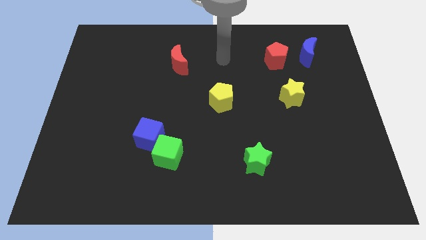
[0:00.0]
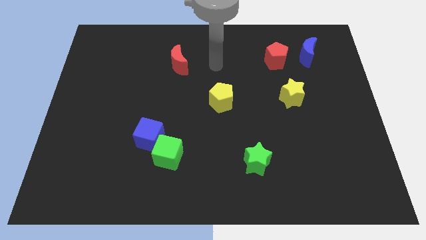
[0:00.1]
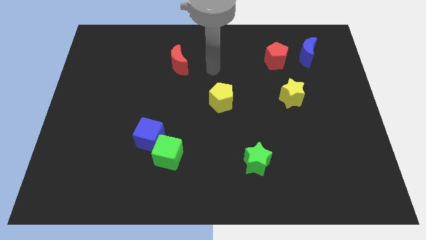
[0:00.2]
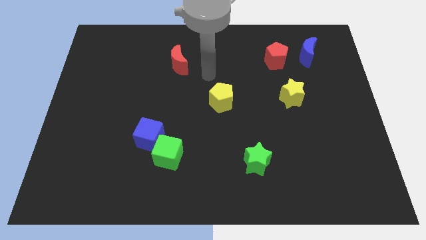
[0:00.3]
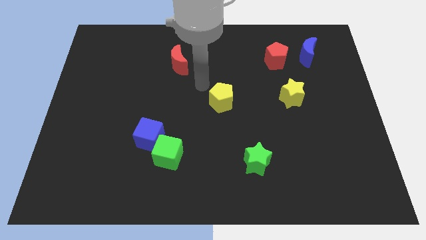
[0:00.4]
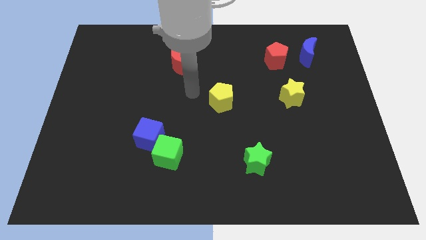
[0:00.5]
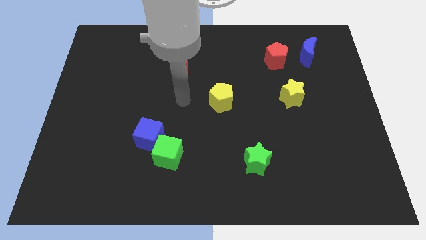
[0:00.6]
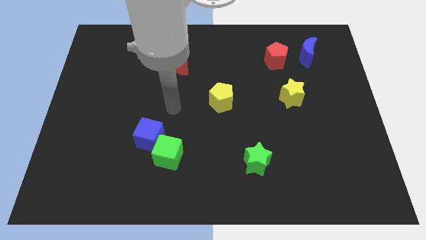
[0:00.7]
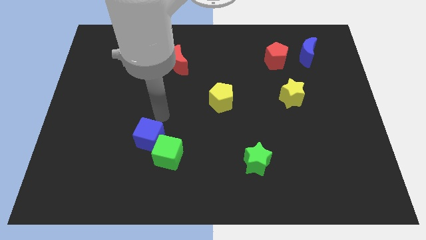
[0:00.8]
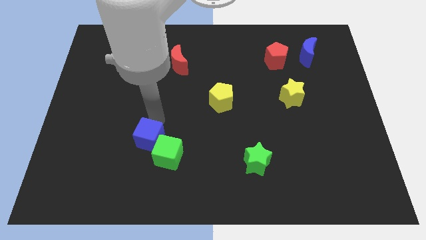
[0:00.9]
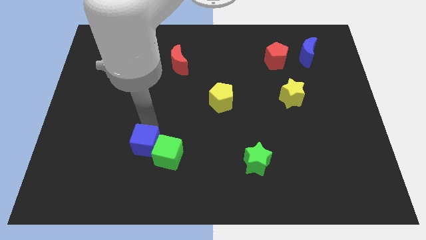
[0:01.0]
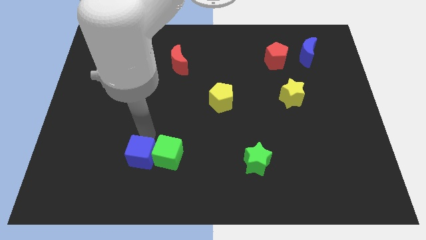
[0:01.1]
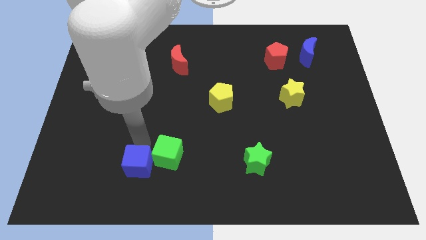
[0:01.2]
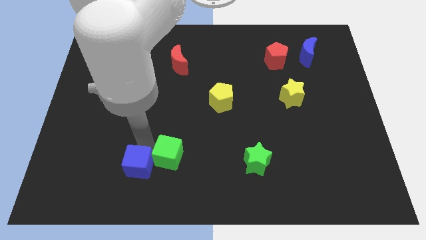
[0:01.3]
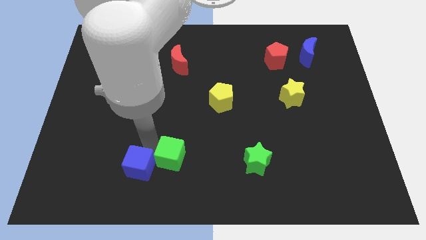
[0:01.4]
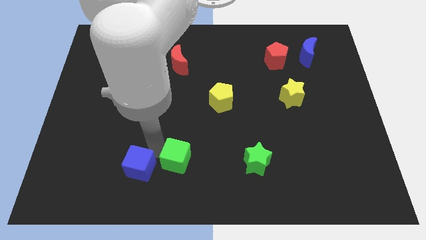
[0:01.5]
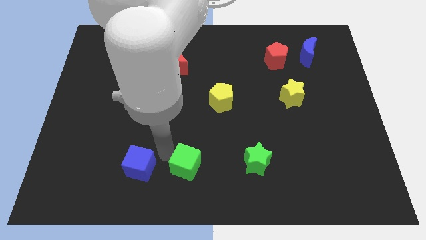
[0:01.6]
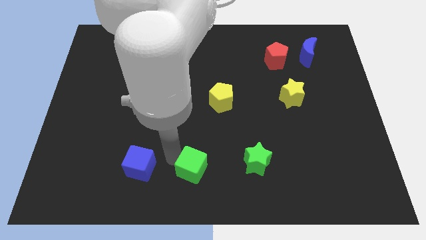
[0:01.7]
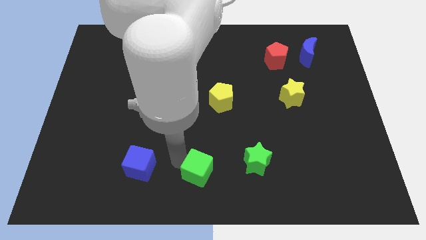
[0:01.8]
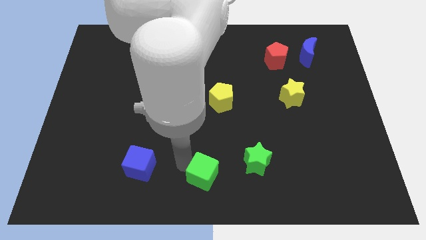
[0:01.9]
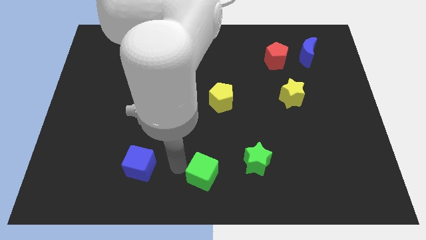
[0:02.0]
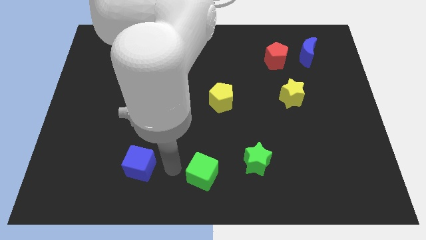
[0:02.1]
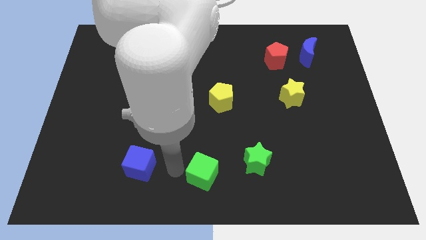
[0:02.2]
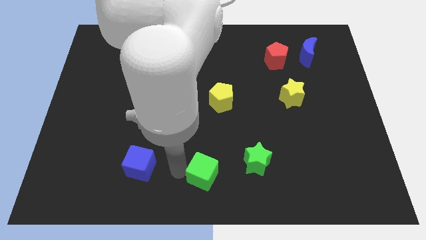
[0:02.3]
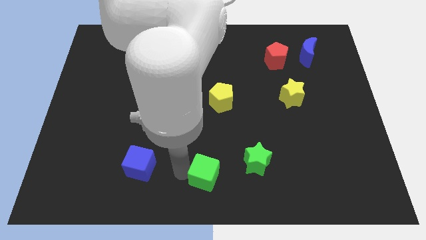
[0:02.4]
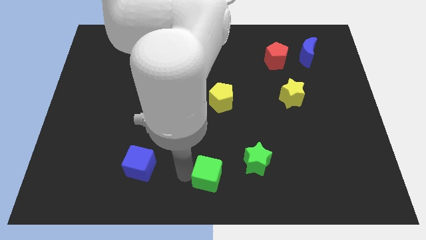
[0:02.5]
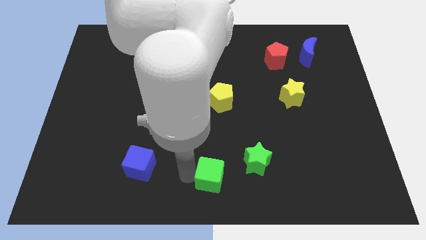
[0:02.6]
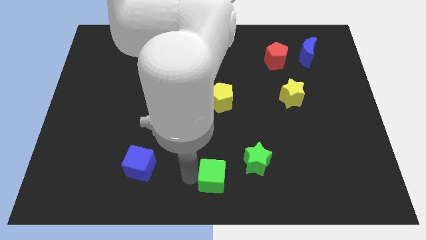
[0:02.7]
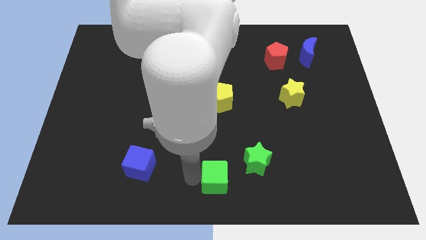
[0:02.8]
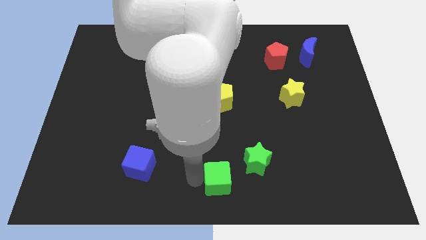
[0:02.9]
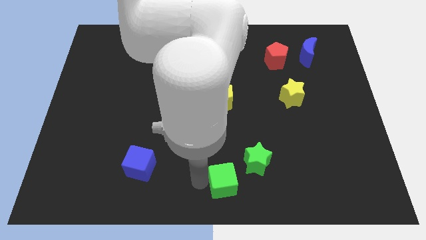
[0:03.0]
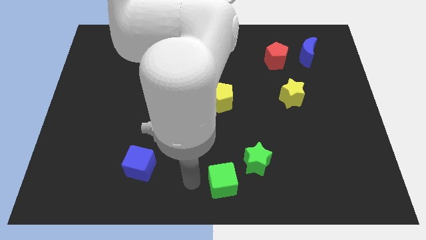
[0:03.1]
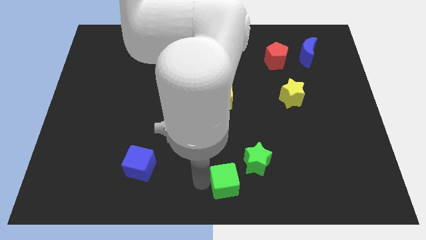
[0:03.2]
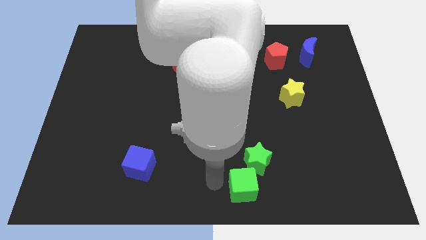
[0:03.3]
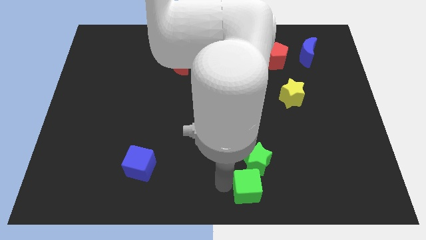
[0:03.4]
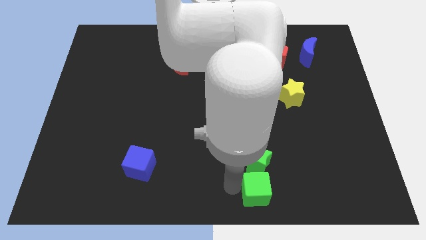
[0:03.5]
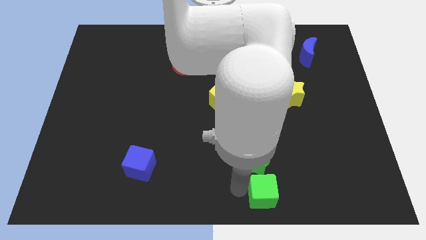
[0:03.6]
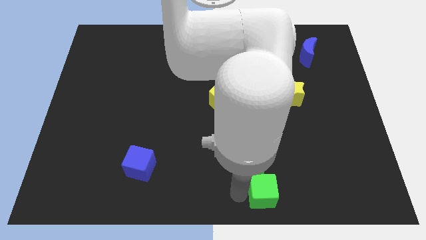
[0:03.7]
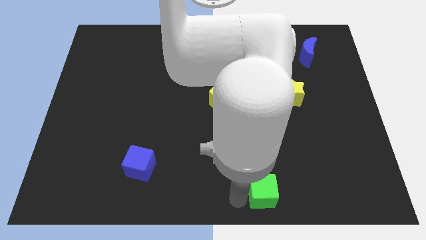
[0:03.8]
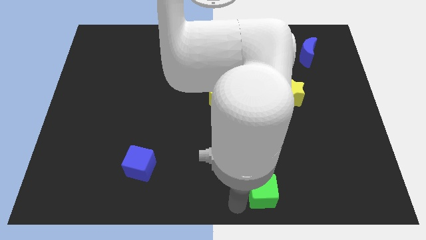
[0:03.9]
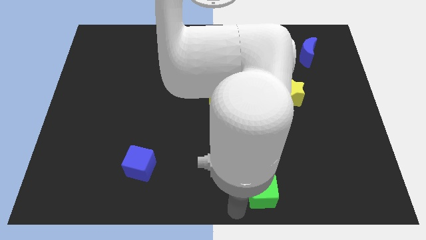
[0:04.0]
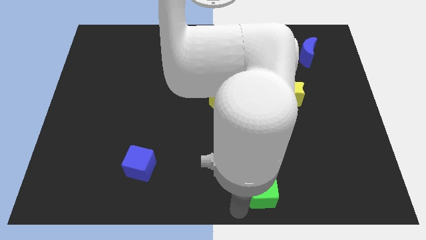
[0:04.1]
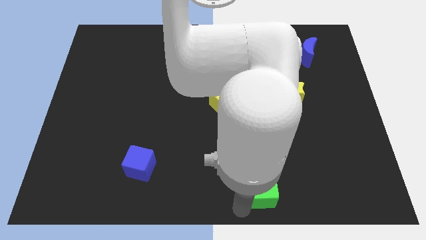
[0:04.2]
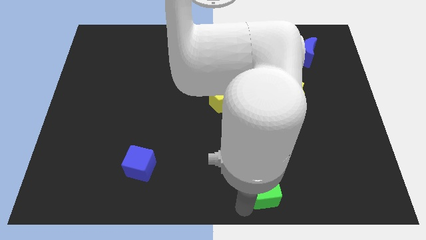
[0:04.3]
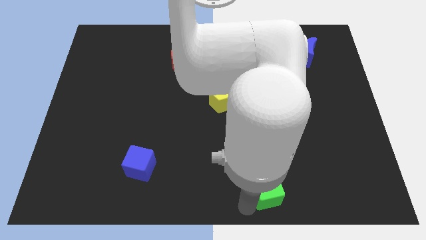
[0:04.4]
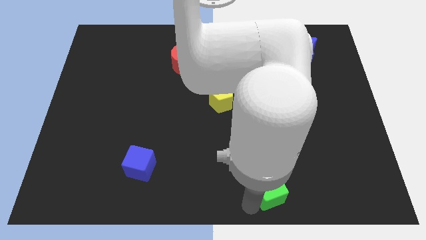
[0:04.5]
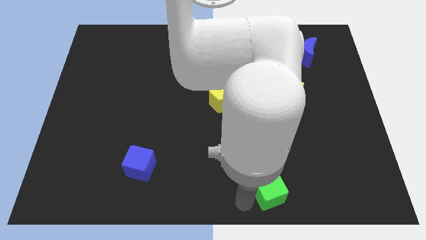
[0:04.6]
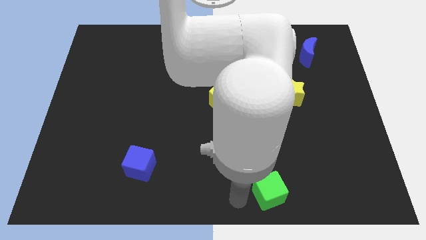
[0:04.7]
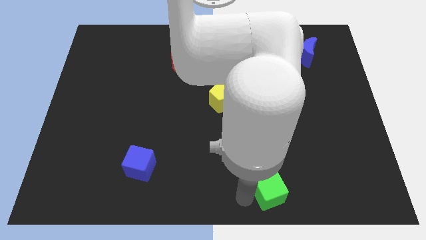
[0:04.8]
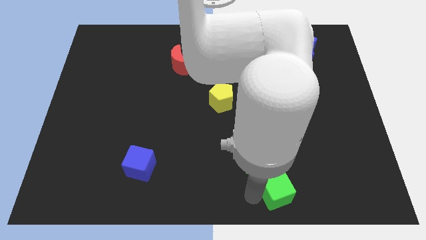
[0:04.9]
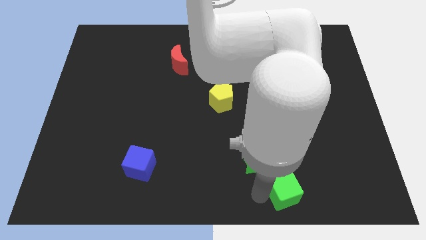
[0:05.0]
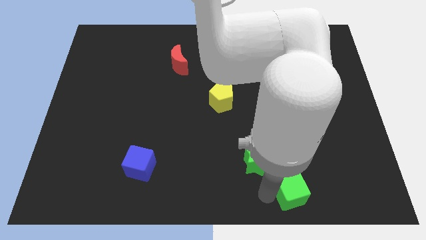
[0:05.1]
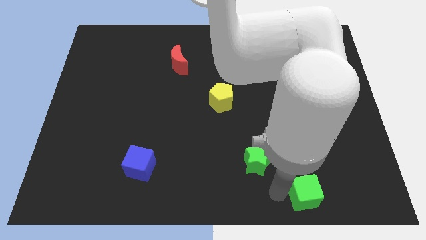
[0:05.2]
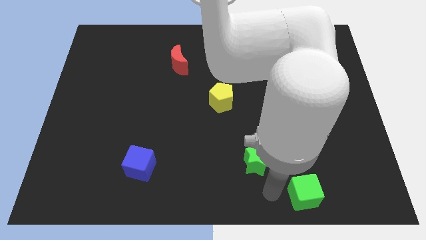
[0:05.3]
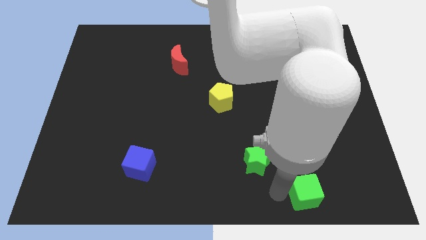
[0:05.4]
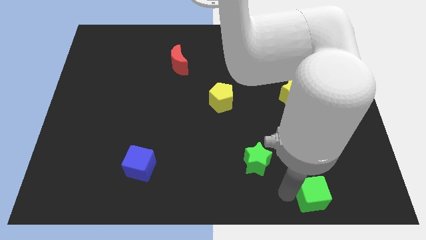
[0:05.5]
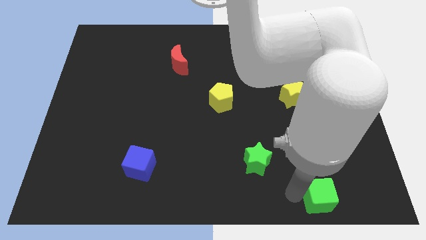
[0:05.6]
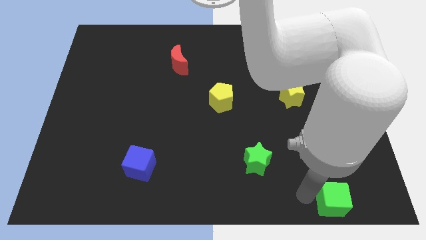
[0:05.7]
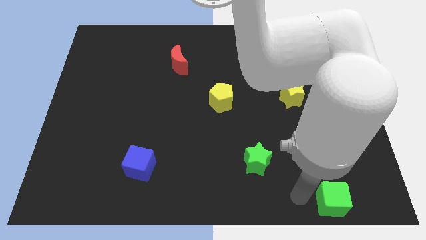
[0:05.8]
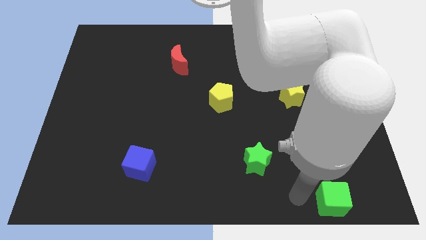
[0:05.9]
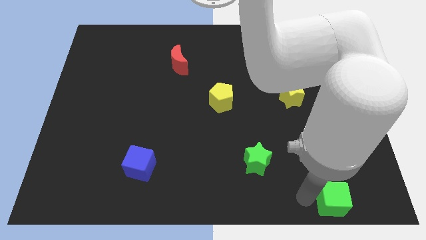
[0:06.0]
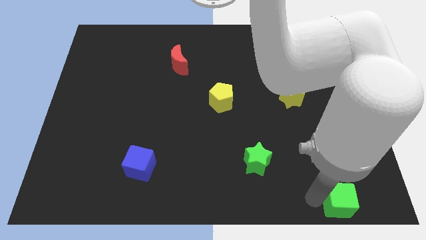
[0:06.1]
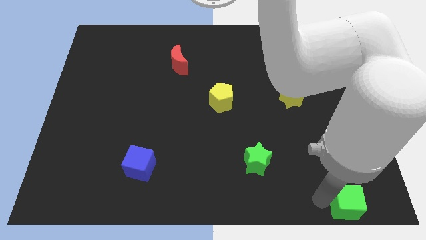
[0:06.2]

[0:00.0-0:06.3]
move the green cube to the bottom right corner

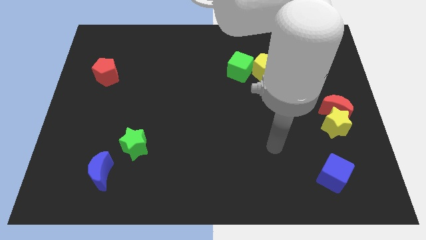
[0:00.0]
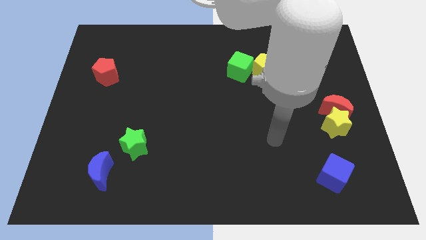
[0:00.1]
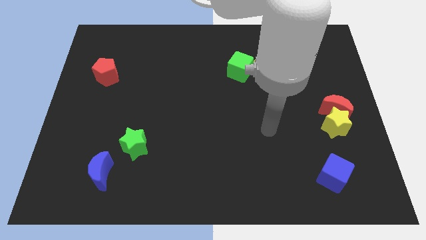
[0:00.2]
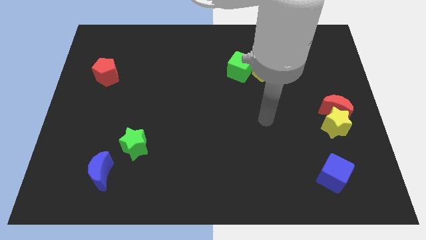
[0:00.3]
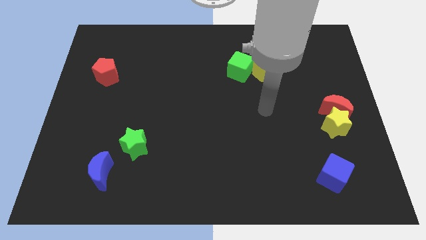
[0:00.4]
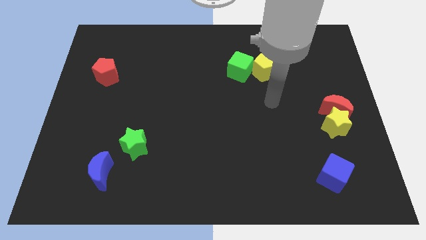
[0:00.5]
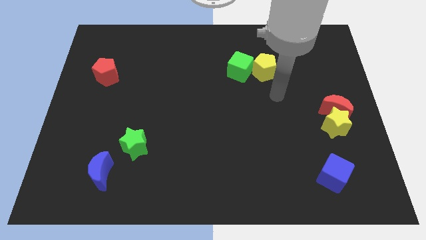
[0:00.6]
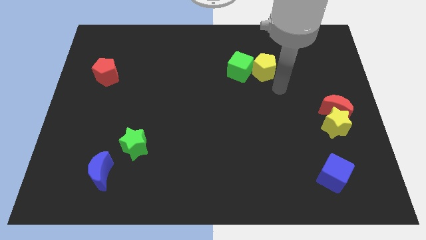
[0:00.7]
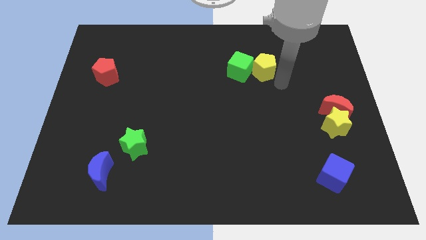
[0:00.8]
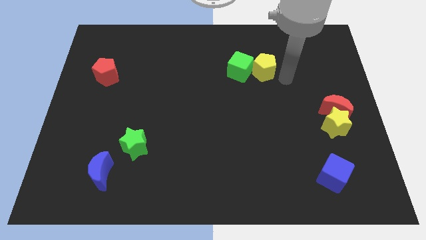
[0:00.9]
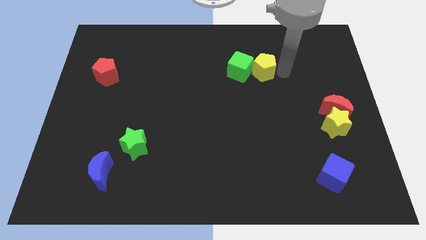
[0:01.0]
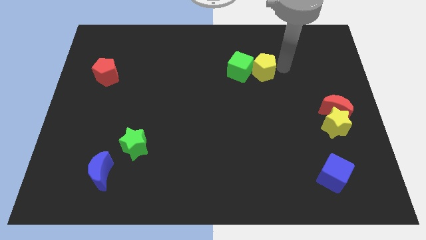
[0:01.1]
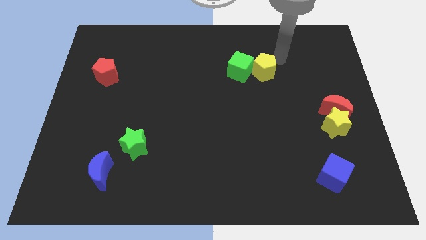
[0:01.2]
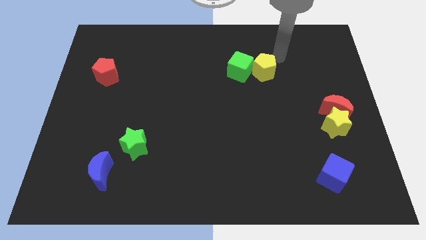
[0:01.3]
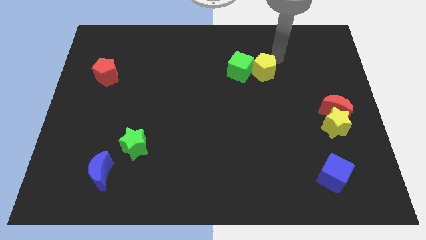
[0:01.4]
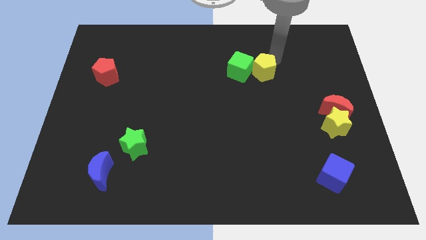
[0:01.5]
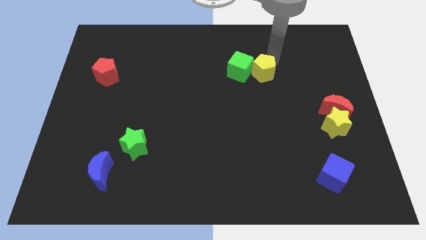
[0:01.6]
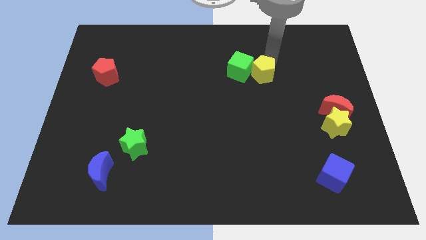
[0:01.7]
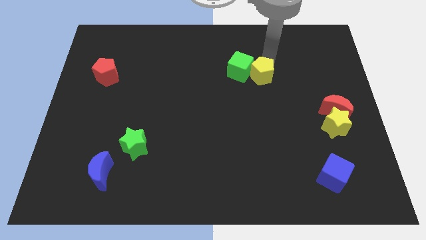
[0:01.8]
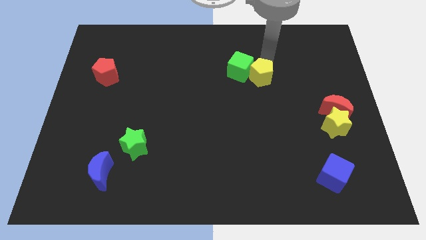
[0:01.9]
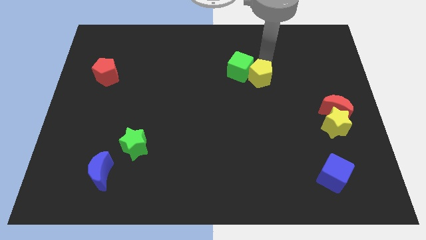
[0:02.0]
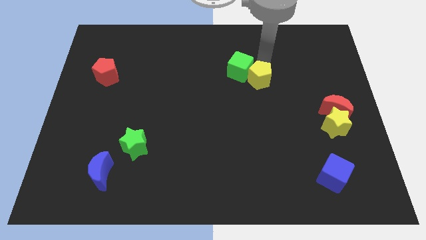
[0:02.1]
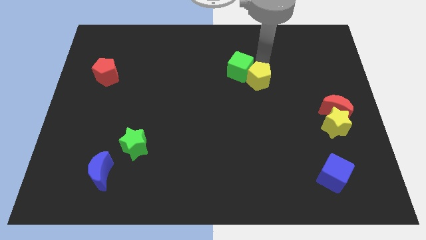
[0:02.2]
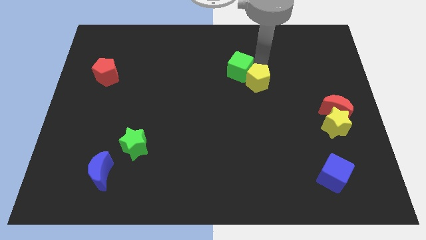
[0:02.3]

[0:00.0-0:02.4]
move the yellow pentagon to the middle
